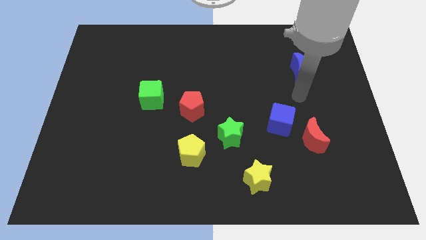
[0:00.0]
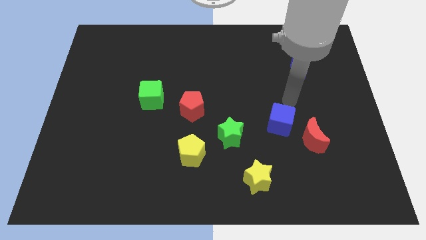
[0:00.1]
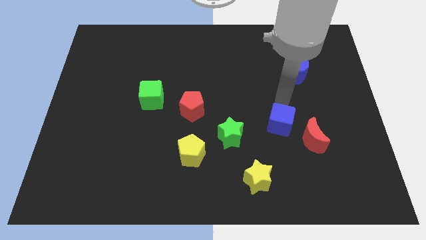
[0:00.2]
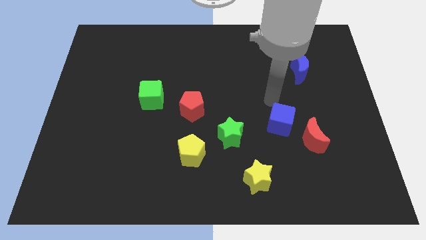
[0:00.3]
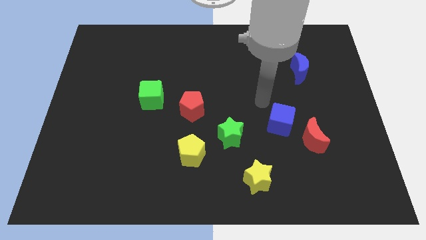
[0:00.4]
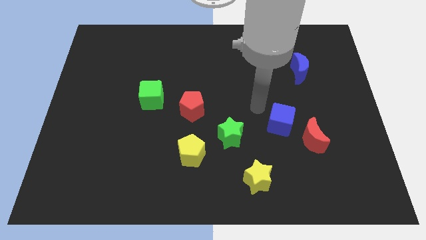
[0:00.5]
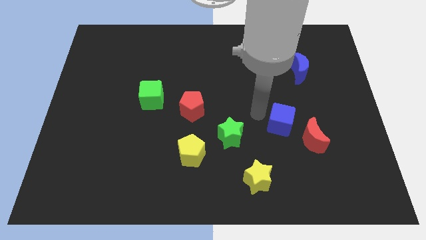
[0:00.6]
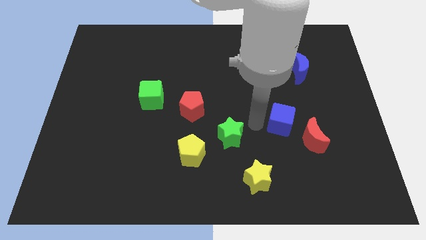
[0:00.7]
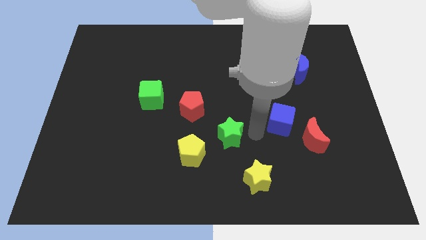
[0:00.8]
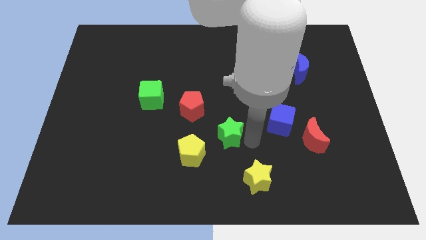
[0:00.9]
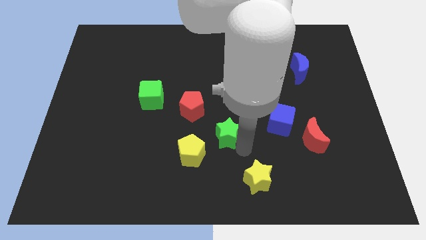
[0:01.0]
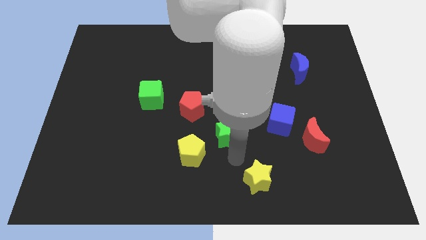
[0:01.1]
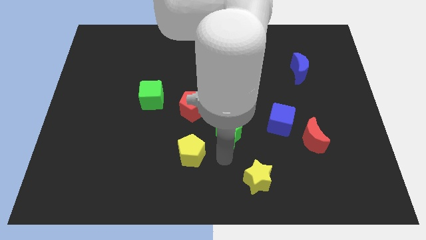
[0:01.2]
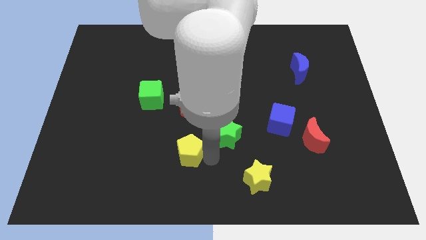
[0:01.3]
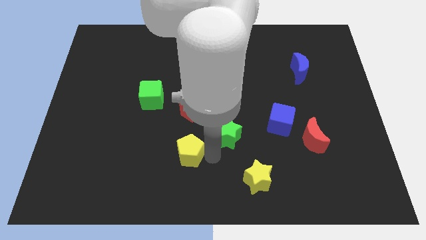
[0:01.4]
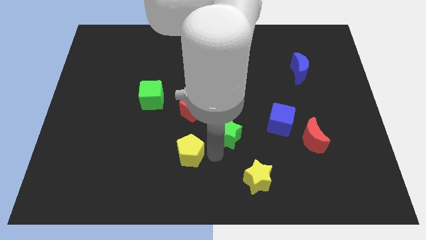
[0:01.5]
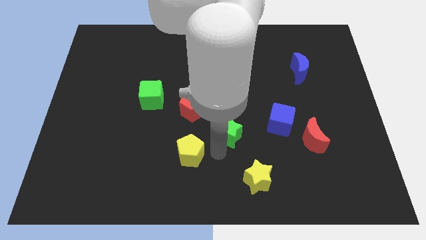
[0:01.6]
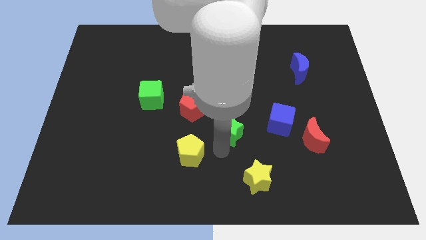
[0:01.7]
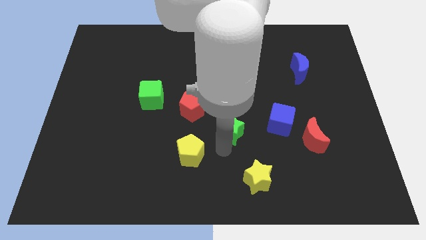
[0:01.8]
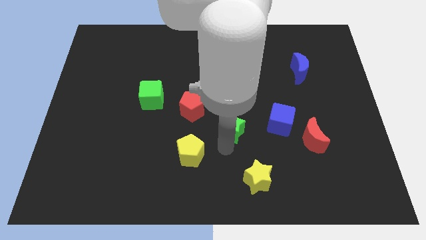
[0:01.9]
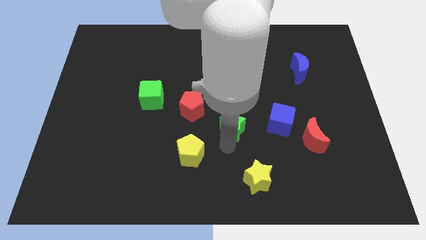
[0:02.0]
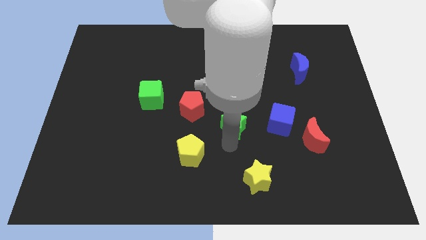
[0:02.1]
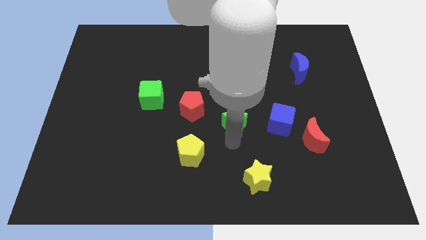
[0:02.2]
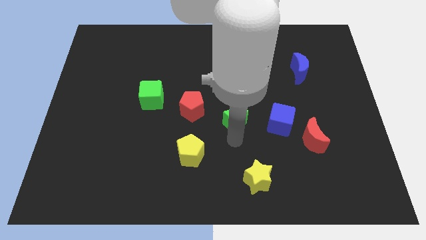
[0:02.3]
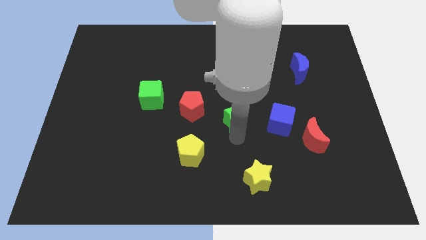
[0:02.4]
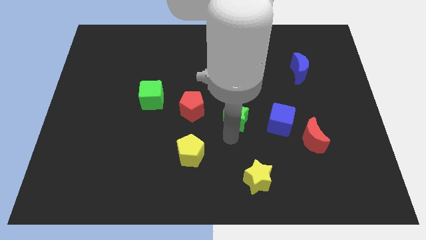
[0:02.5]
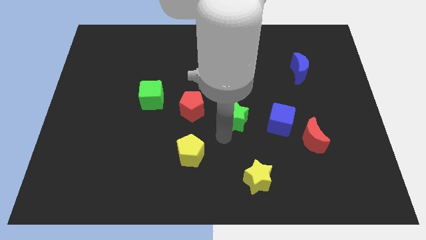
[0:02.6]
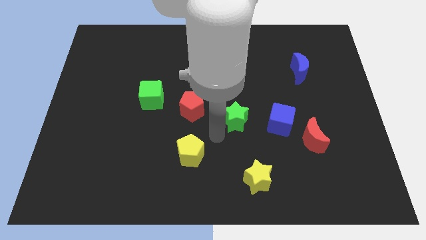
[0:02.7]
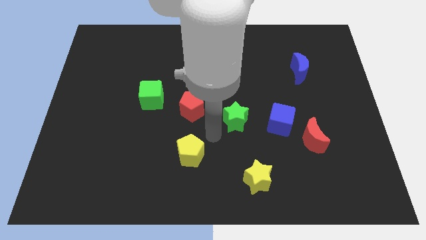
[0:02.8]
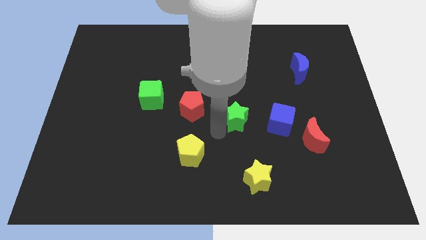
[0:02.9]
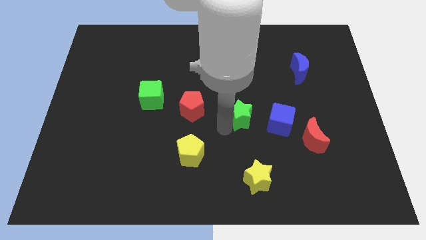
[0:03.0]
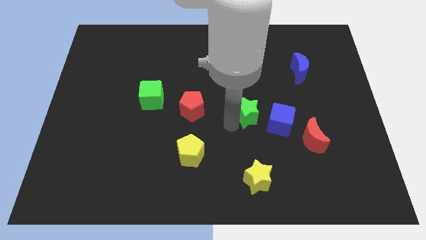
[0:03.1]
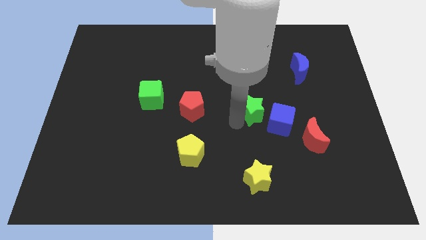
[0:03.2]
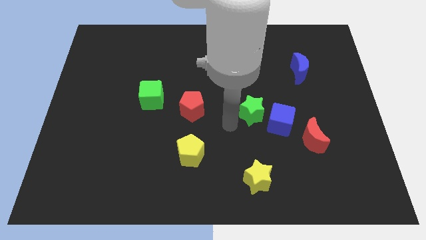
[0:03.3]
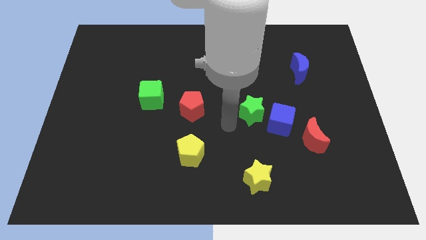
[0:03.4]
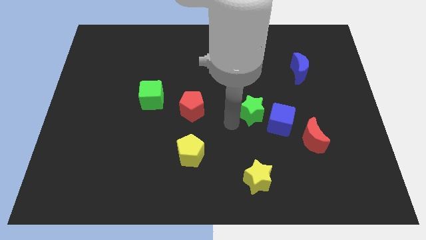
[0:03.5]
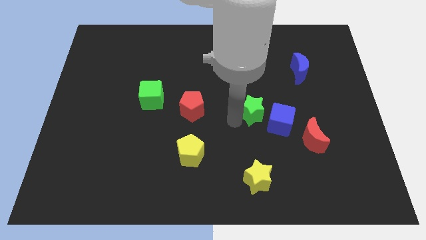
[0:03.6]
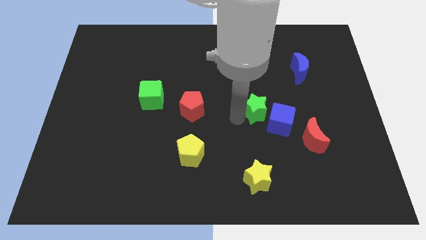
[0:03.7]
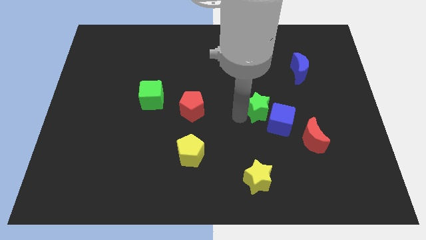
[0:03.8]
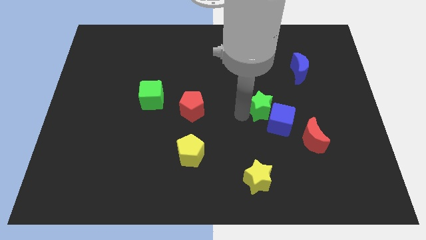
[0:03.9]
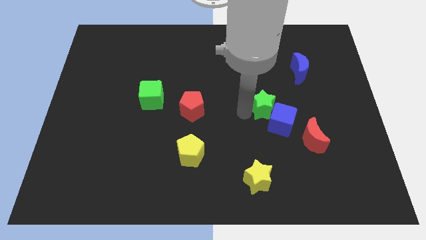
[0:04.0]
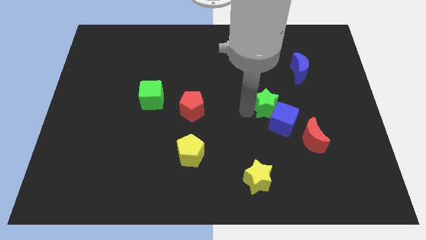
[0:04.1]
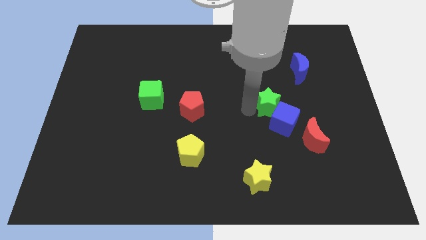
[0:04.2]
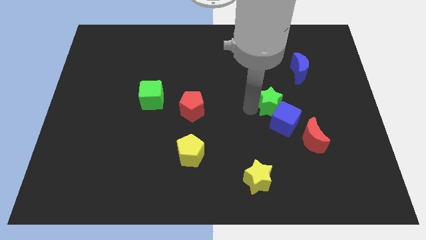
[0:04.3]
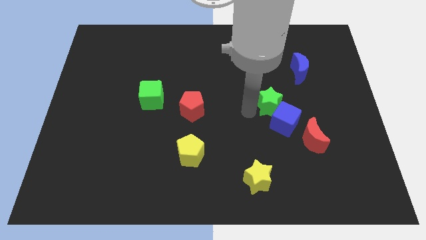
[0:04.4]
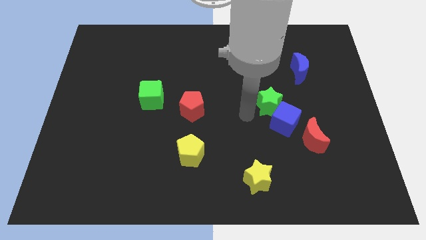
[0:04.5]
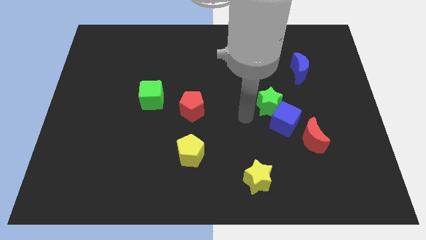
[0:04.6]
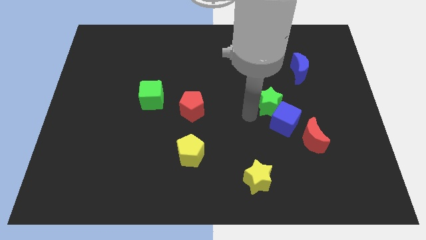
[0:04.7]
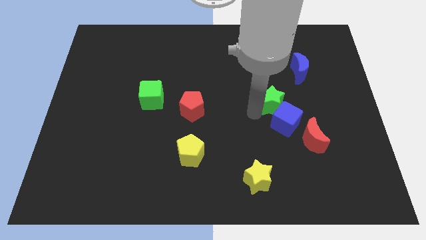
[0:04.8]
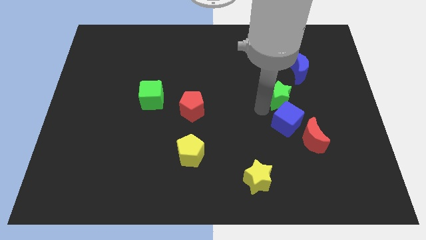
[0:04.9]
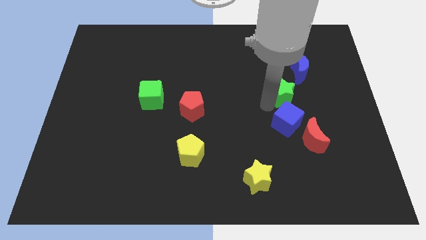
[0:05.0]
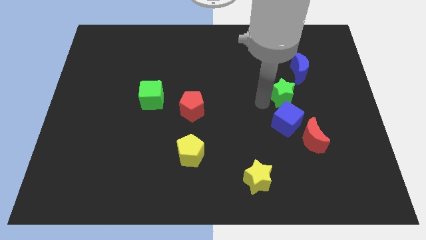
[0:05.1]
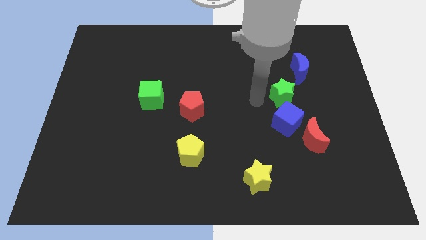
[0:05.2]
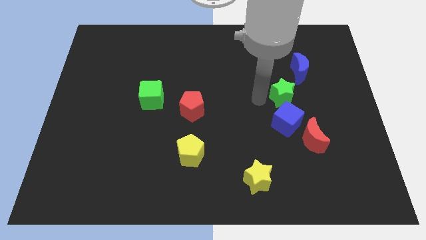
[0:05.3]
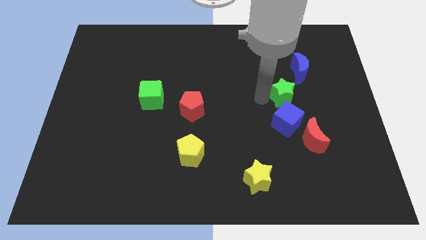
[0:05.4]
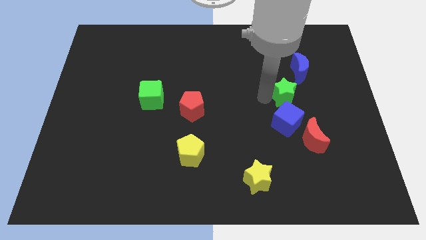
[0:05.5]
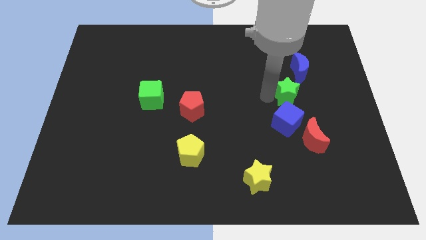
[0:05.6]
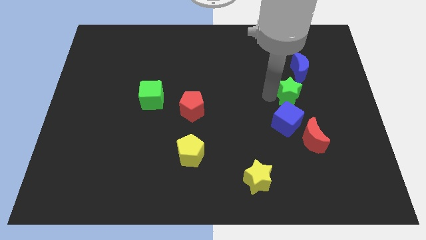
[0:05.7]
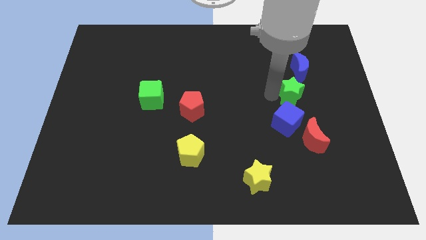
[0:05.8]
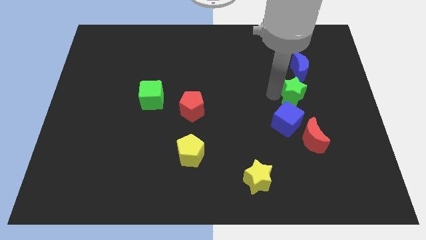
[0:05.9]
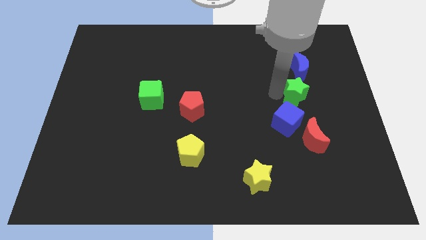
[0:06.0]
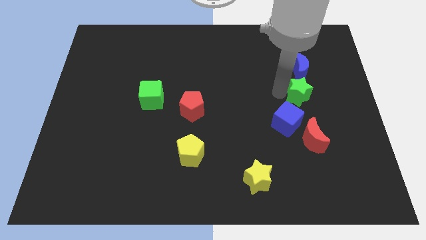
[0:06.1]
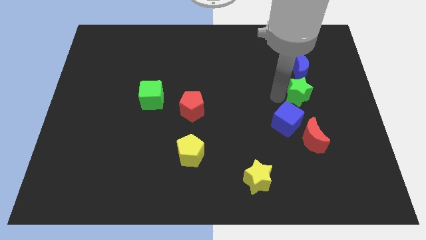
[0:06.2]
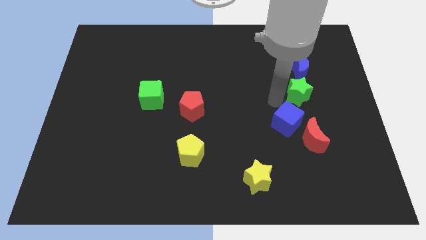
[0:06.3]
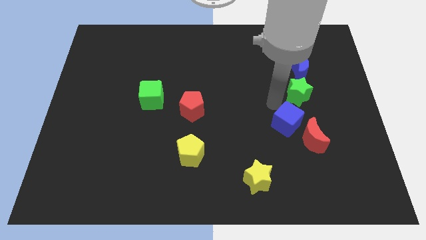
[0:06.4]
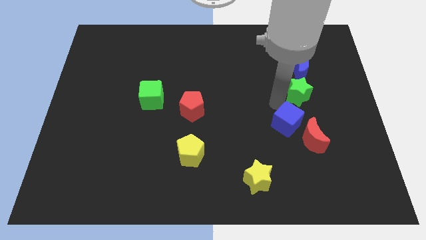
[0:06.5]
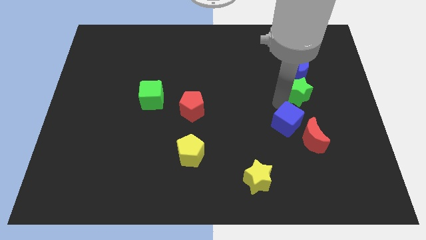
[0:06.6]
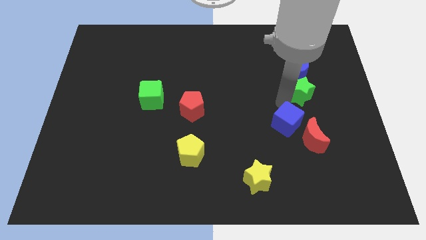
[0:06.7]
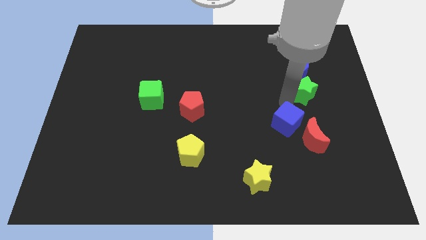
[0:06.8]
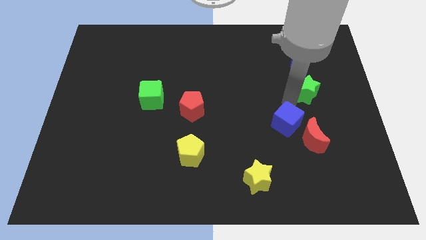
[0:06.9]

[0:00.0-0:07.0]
push the green star diagonally down and to the right of the blue moon
